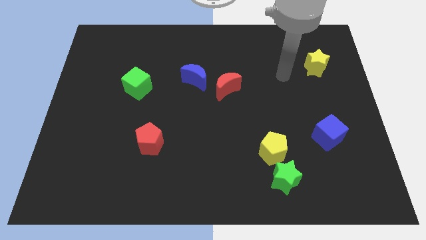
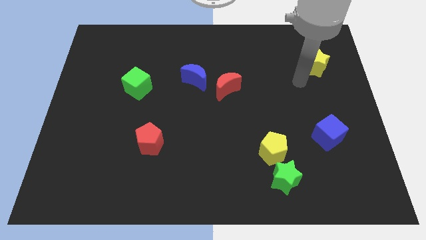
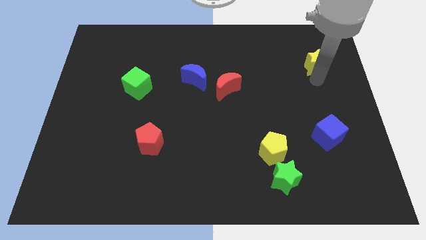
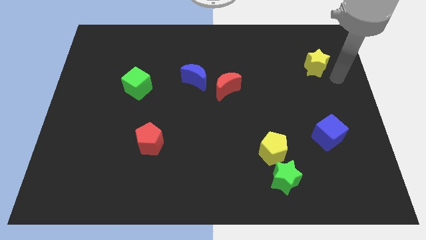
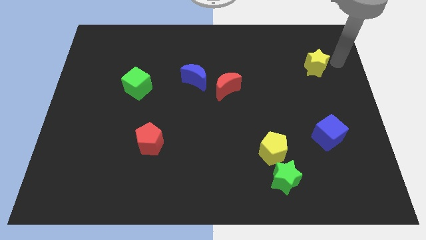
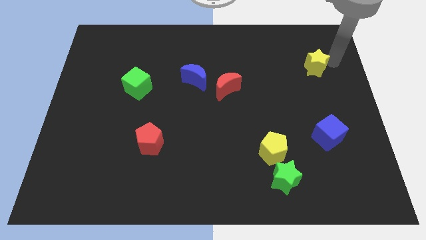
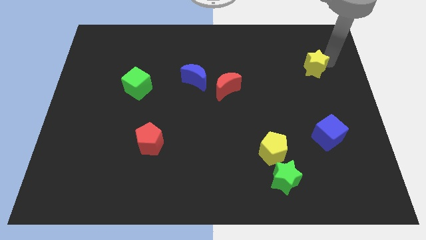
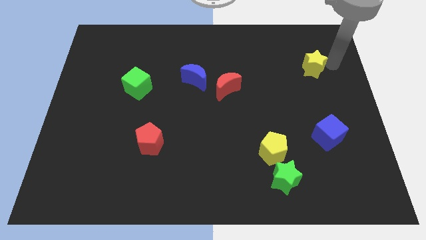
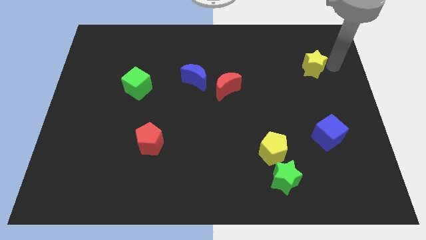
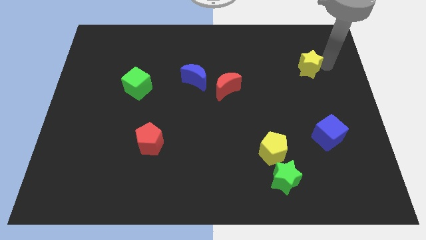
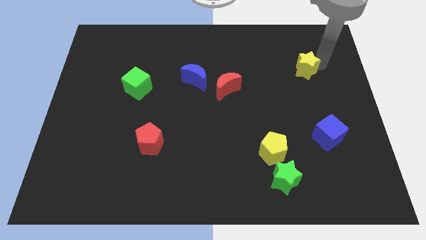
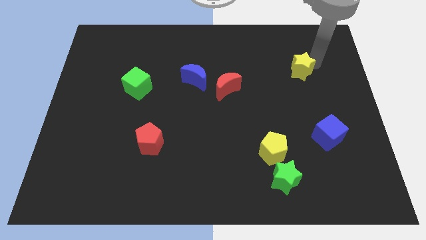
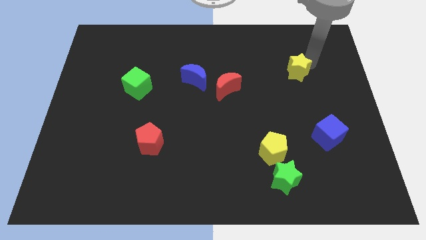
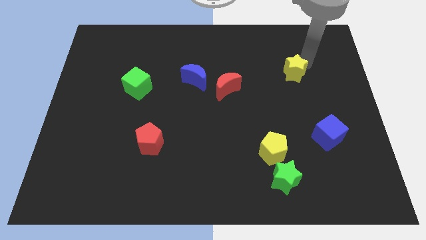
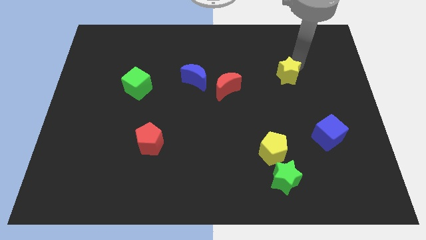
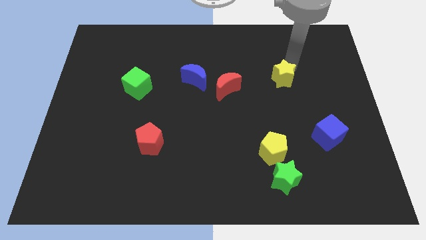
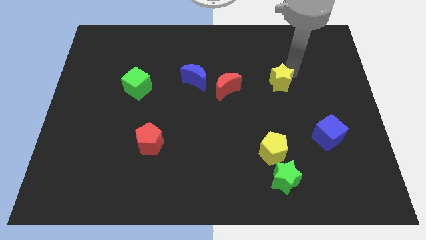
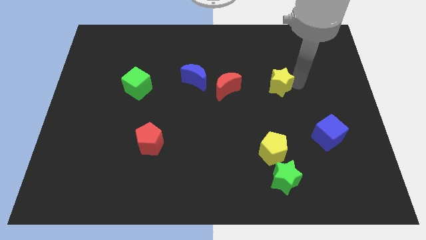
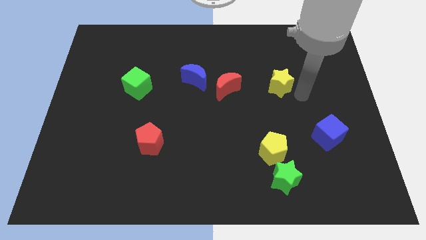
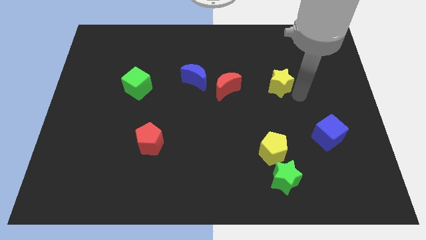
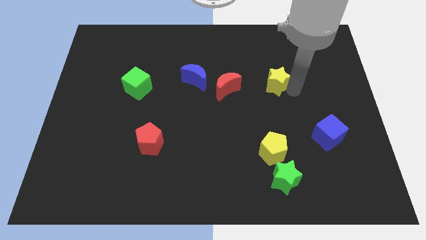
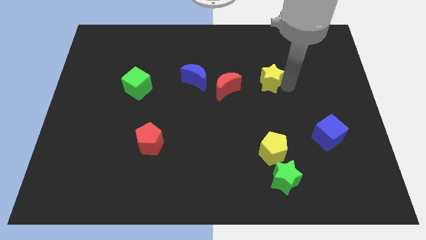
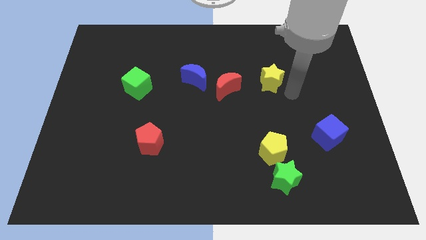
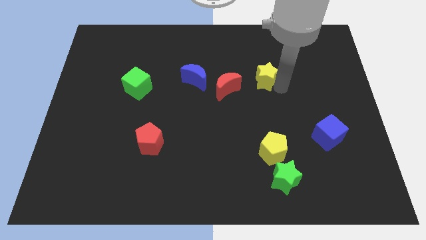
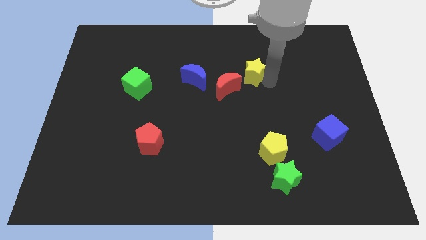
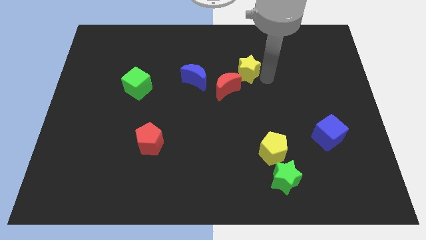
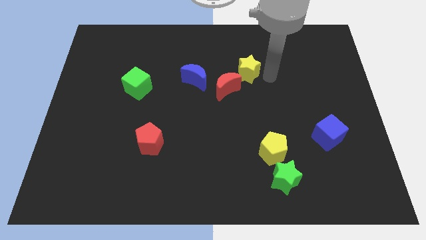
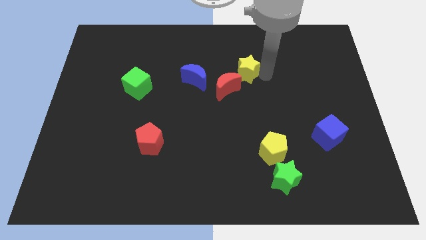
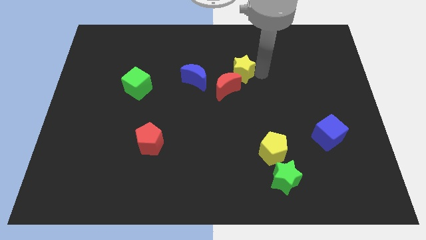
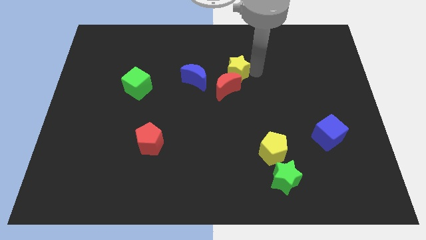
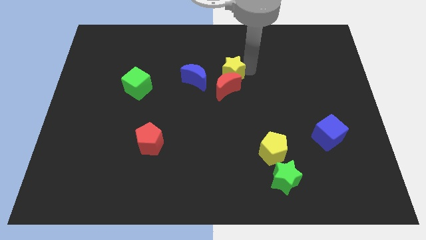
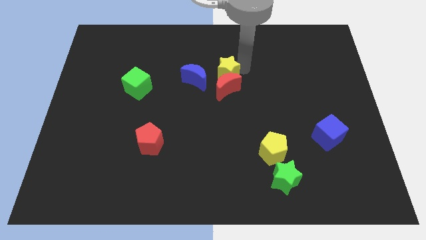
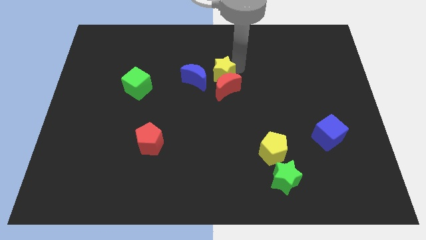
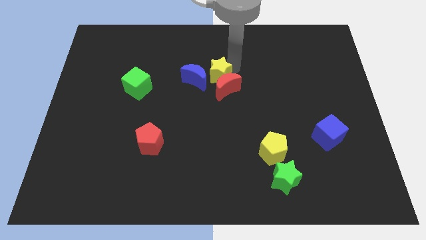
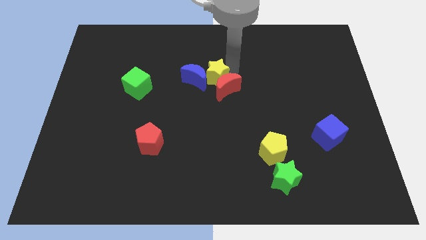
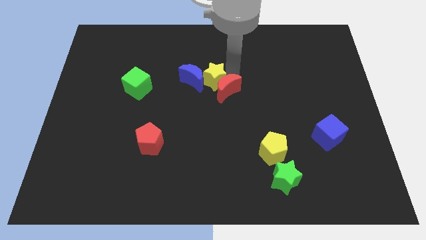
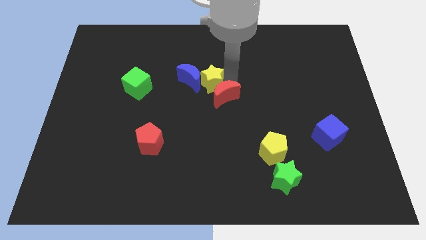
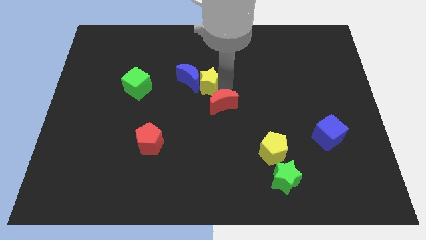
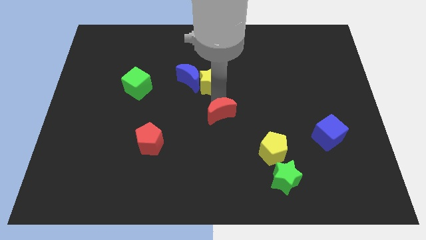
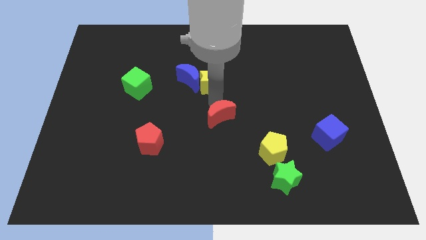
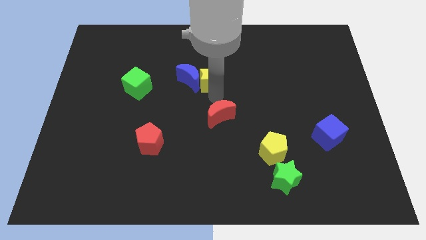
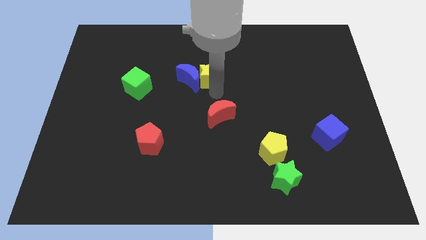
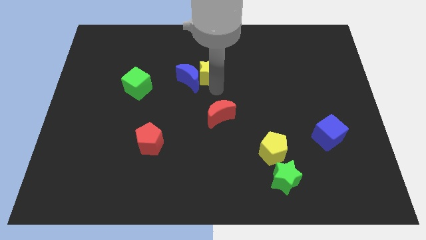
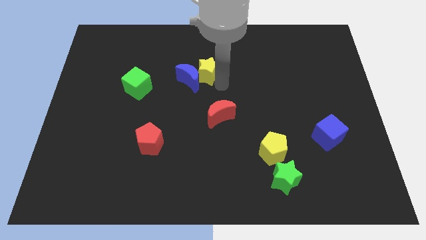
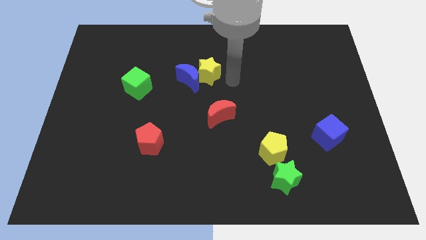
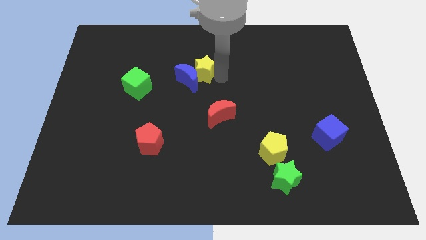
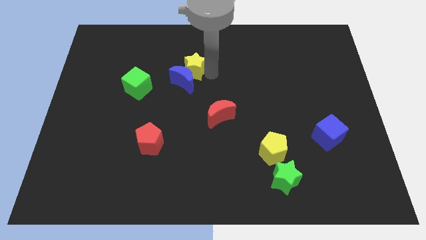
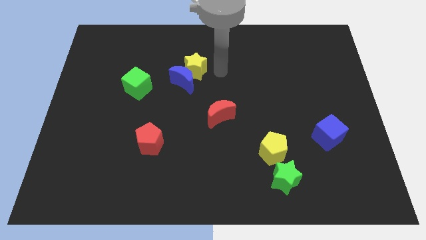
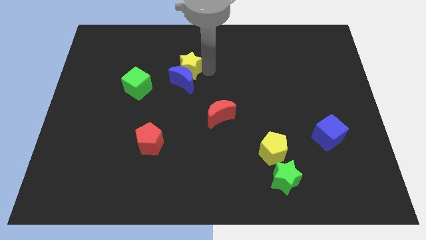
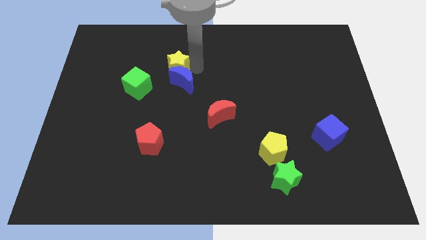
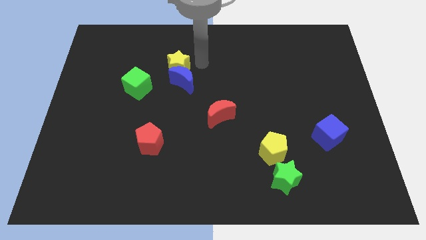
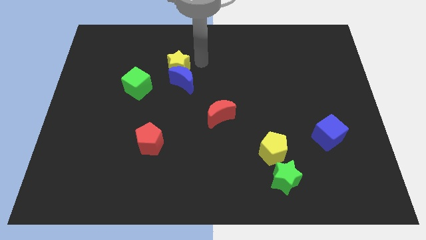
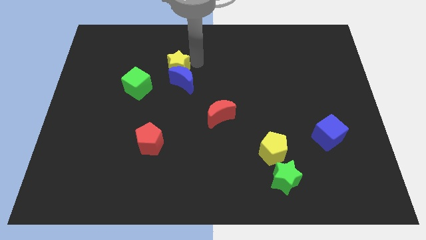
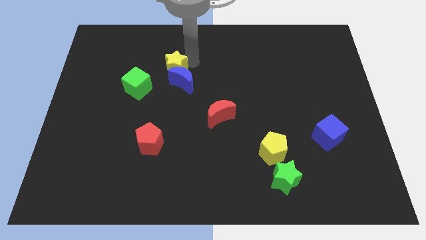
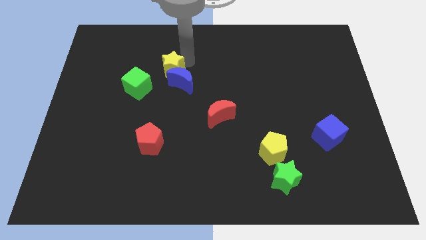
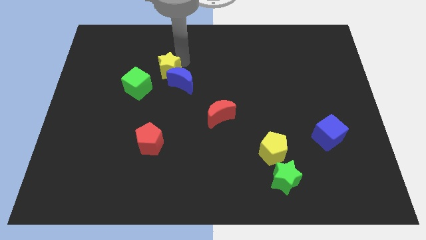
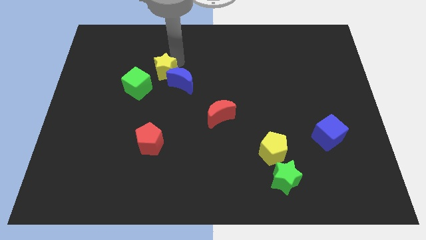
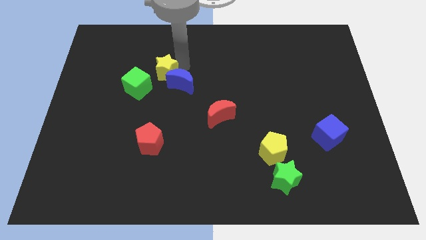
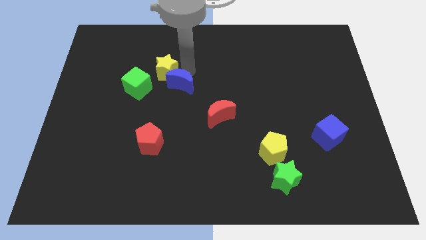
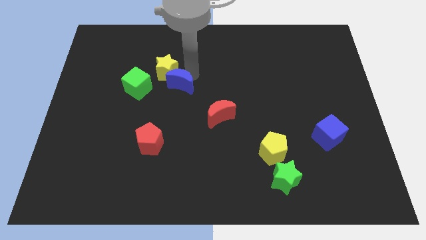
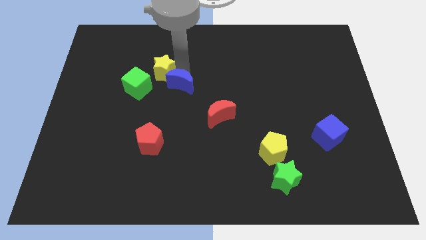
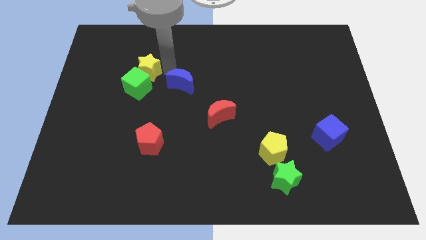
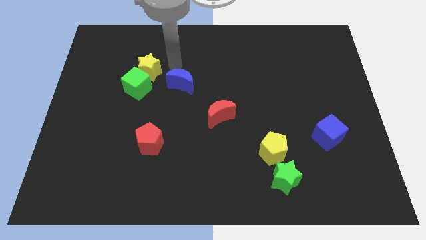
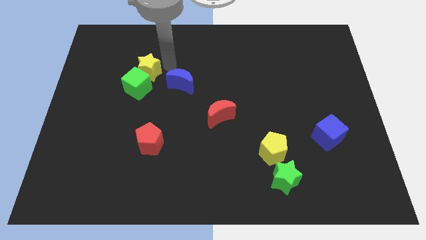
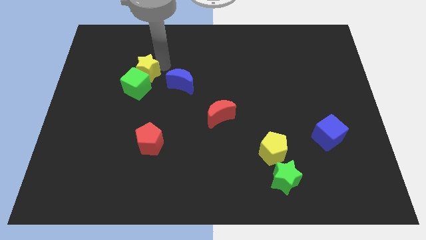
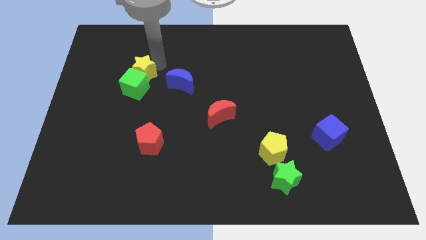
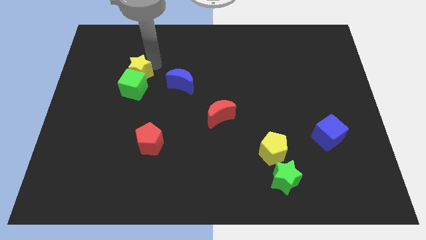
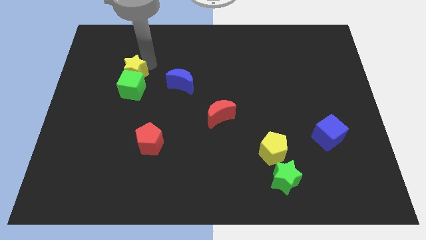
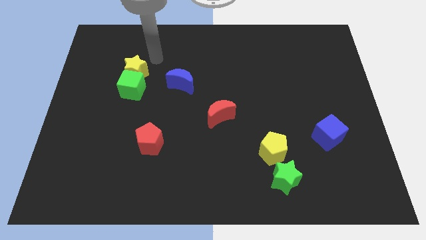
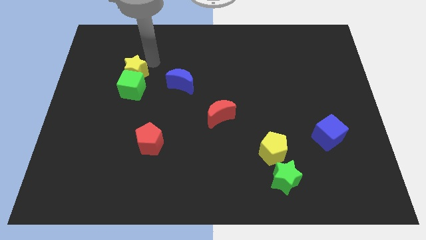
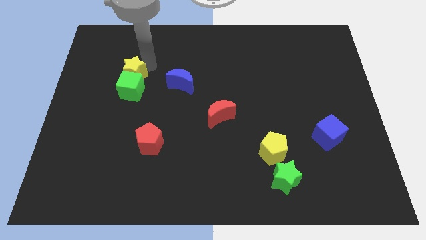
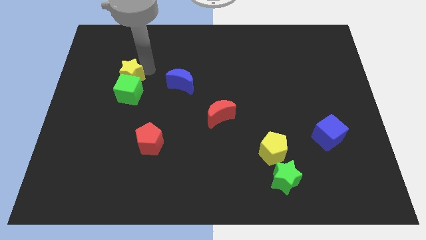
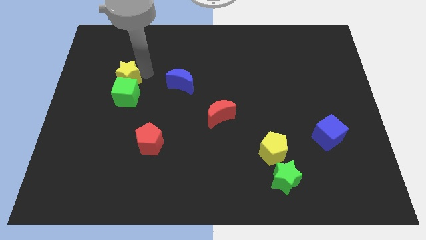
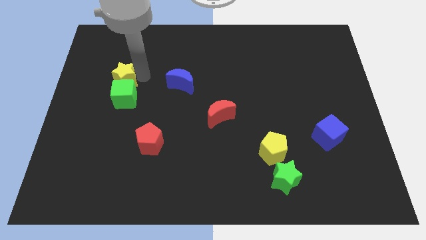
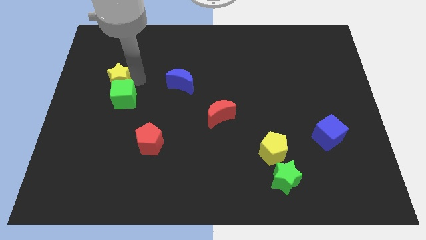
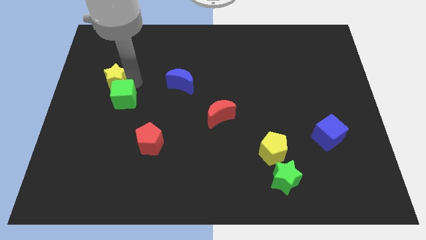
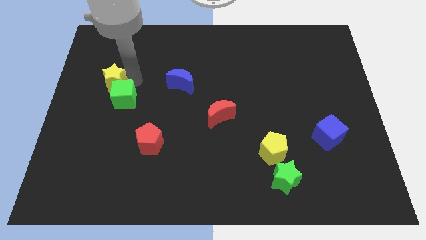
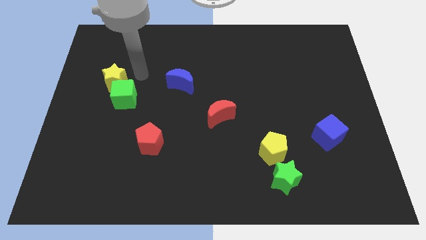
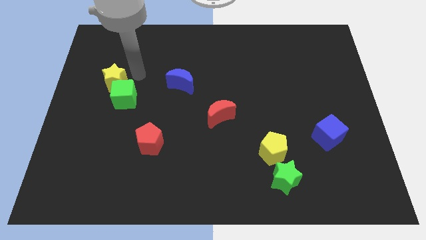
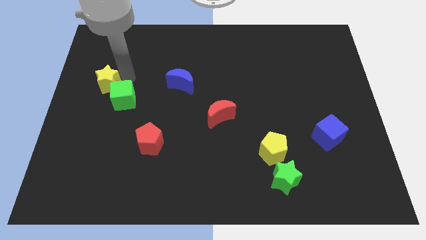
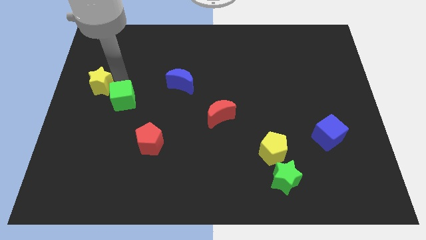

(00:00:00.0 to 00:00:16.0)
push the yellow star to the left side of the board
